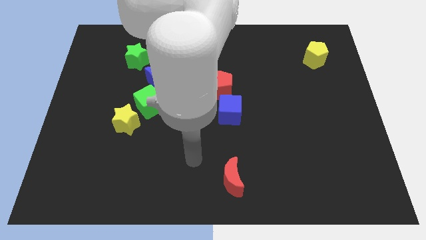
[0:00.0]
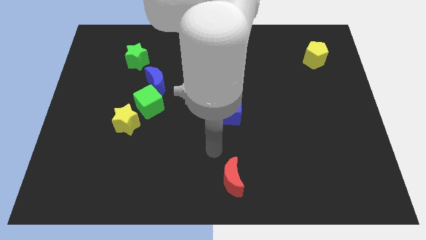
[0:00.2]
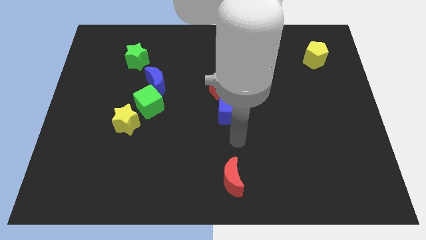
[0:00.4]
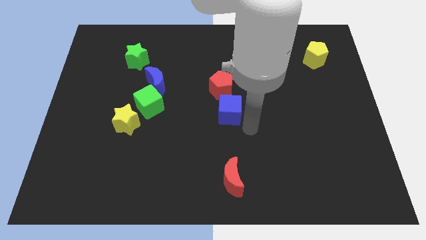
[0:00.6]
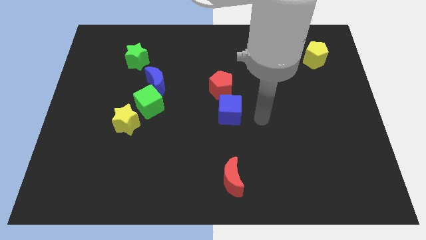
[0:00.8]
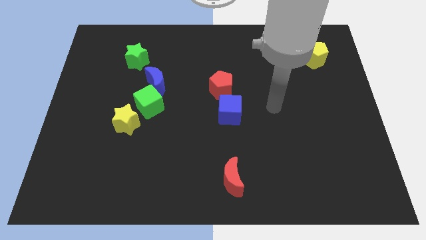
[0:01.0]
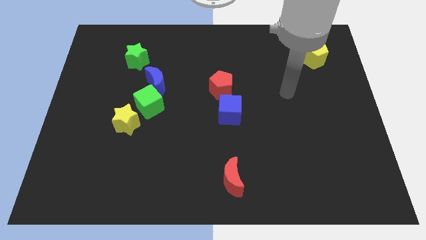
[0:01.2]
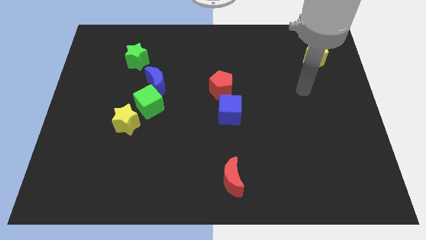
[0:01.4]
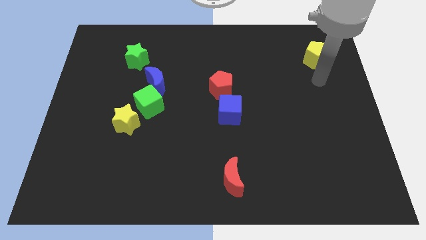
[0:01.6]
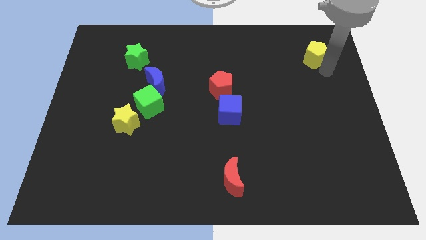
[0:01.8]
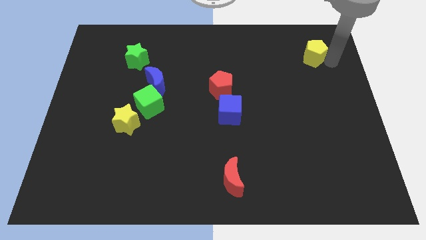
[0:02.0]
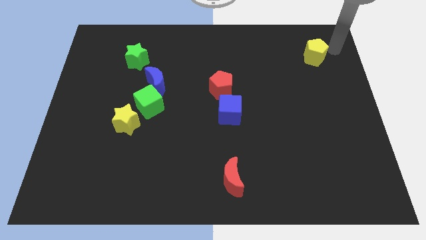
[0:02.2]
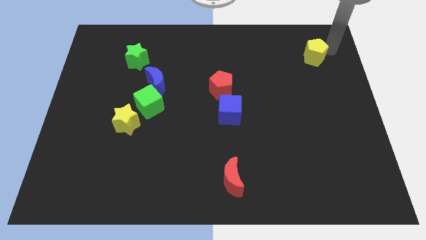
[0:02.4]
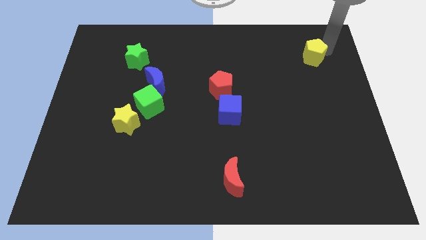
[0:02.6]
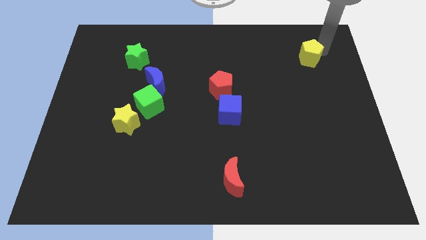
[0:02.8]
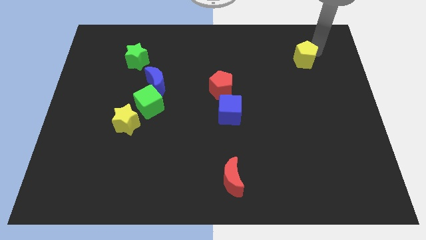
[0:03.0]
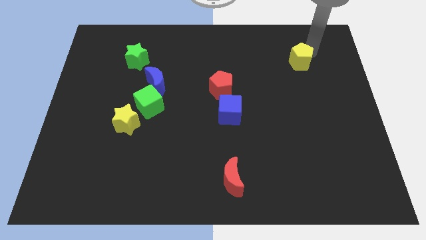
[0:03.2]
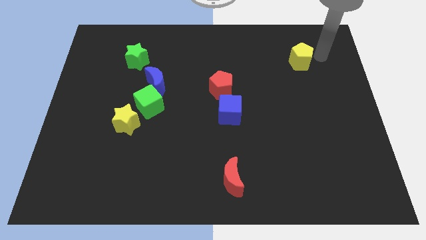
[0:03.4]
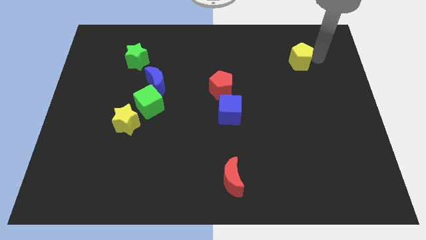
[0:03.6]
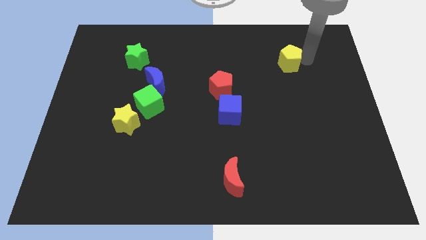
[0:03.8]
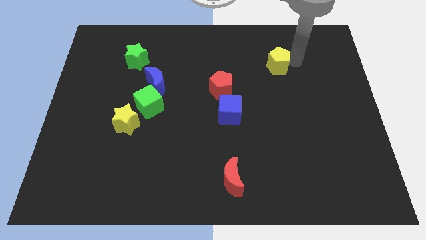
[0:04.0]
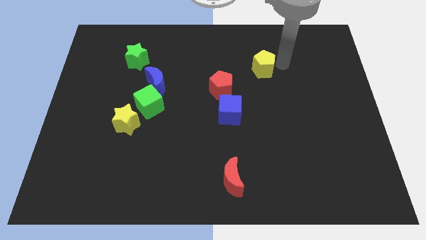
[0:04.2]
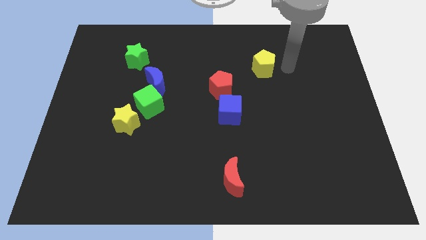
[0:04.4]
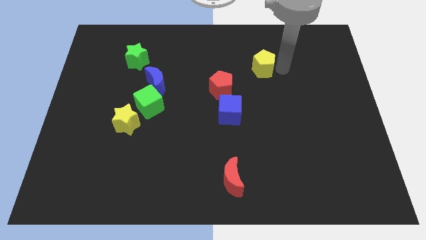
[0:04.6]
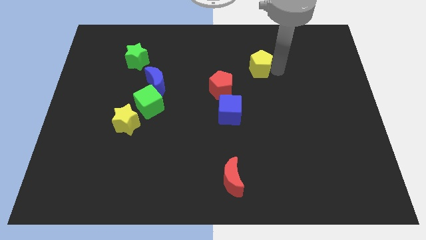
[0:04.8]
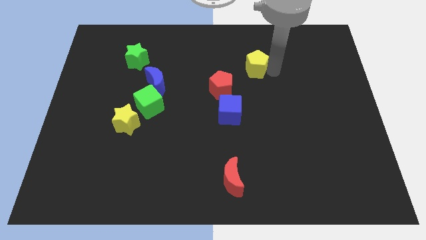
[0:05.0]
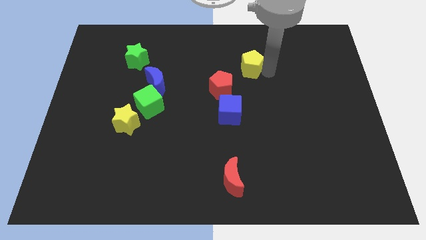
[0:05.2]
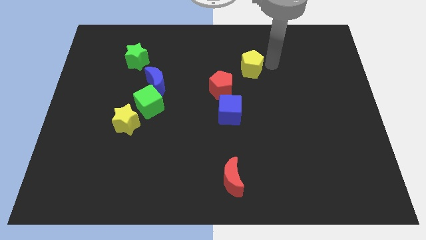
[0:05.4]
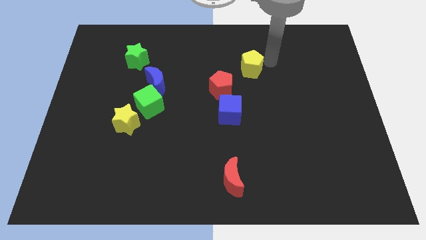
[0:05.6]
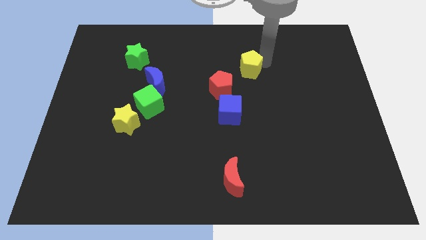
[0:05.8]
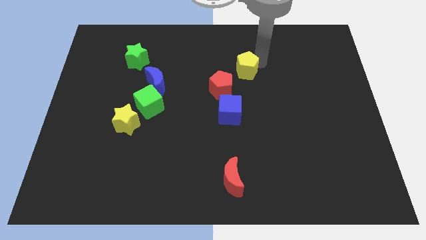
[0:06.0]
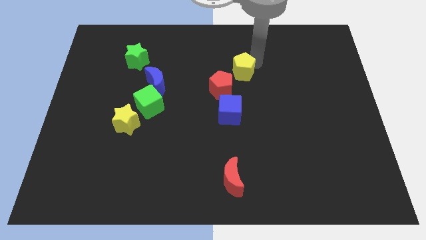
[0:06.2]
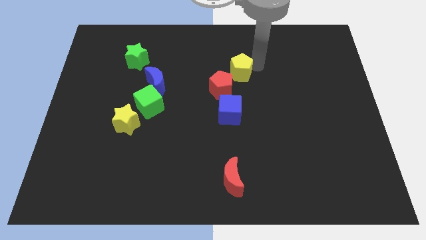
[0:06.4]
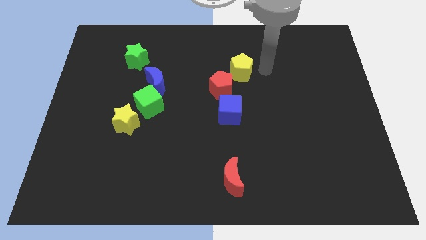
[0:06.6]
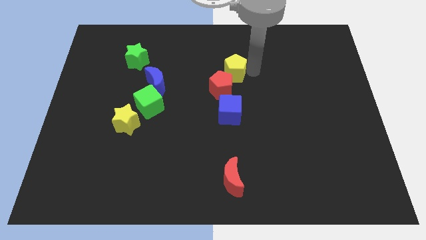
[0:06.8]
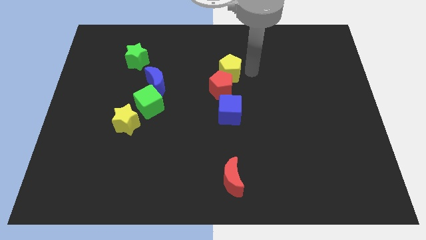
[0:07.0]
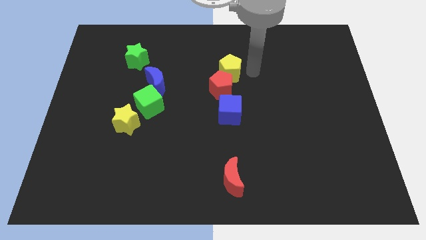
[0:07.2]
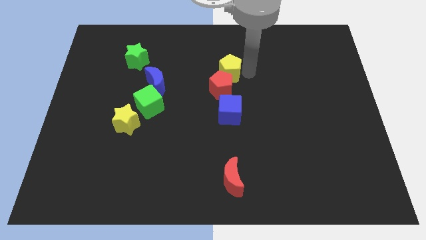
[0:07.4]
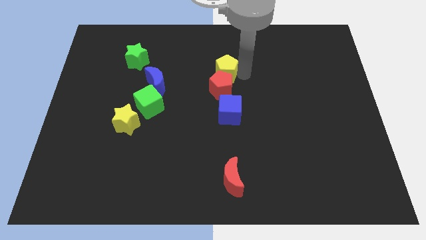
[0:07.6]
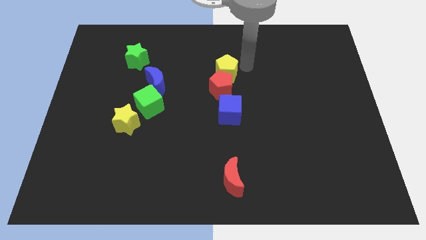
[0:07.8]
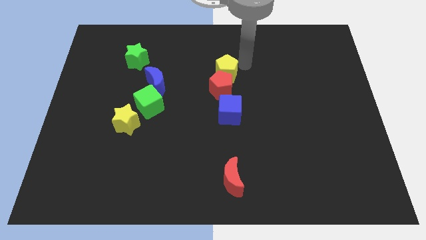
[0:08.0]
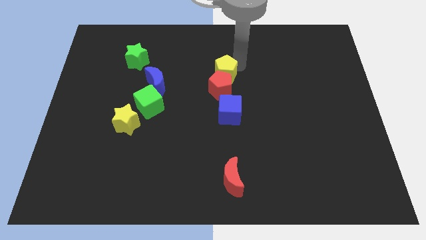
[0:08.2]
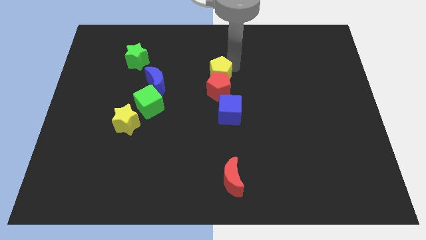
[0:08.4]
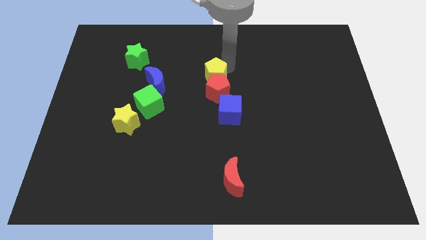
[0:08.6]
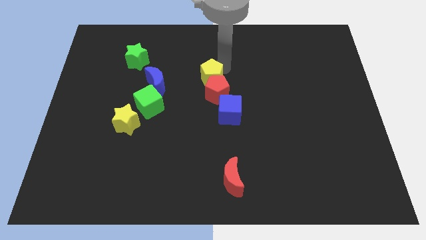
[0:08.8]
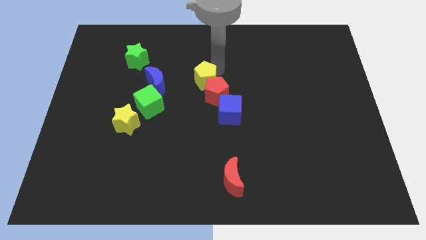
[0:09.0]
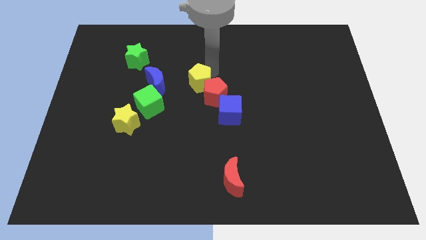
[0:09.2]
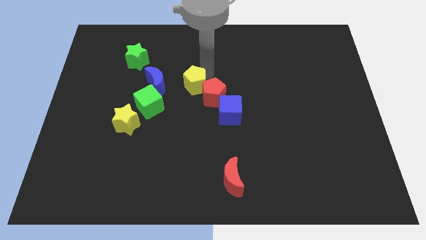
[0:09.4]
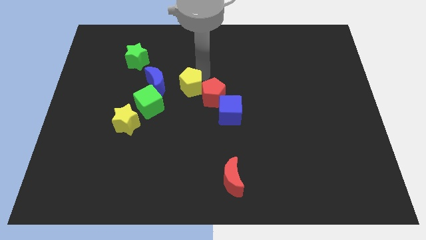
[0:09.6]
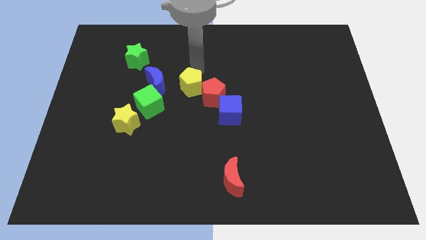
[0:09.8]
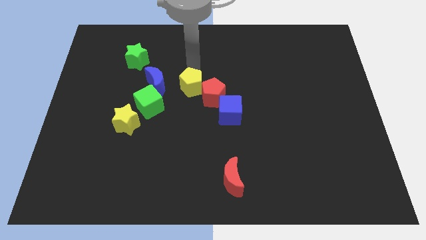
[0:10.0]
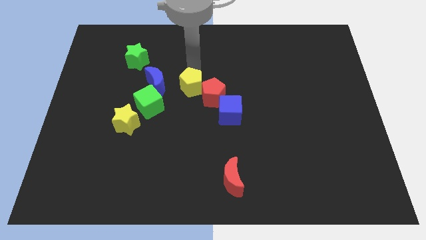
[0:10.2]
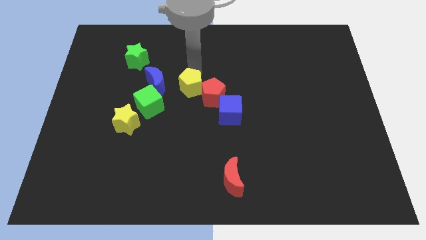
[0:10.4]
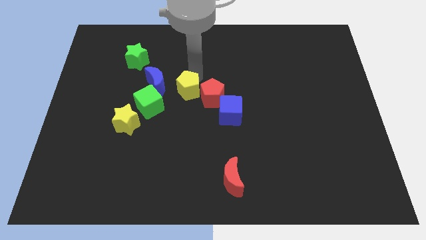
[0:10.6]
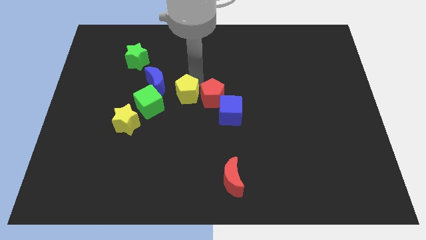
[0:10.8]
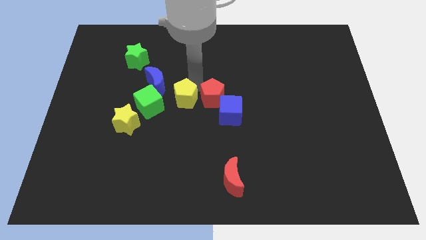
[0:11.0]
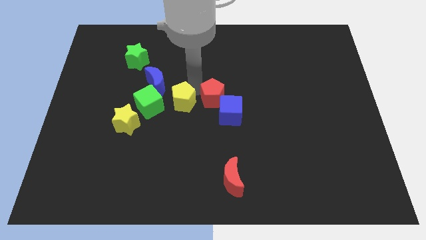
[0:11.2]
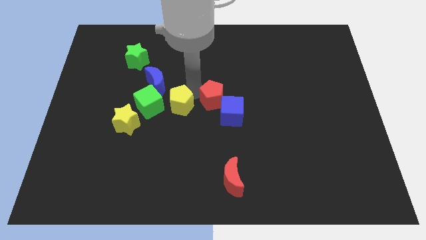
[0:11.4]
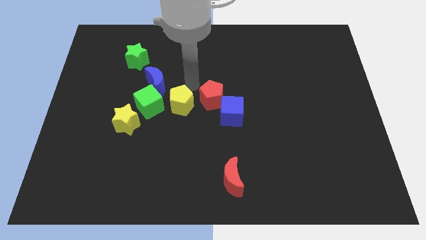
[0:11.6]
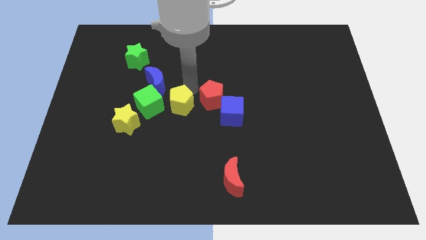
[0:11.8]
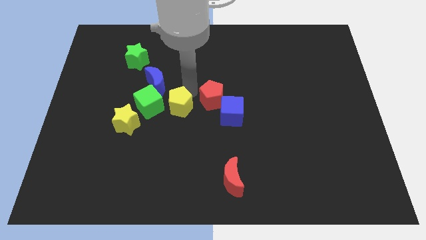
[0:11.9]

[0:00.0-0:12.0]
move the yellow pentagon diagonally down and to the right of the green cube

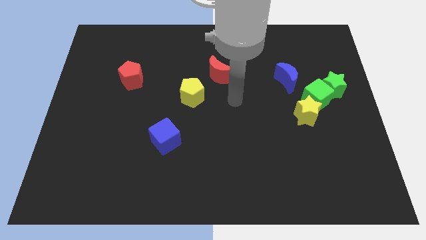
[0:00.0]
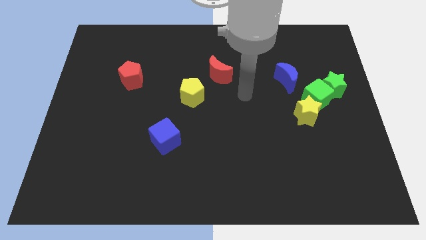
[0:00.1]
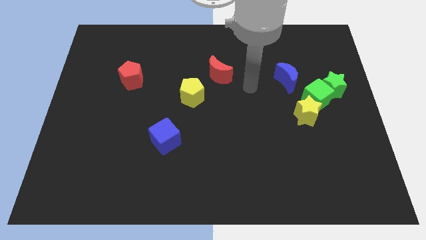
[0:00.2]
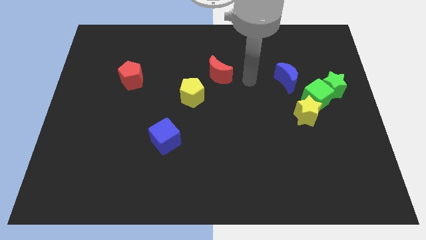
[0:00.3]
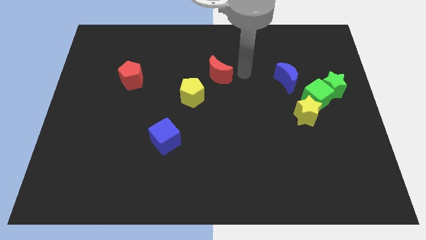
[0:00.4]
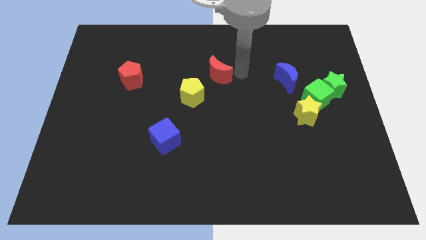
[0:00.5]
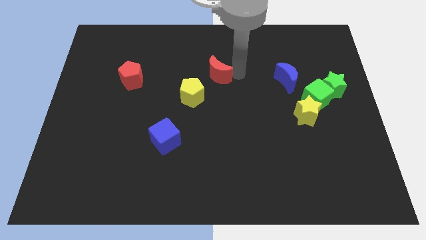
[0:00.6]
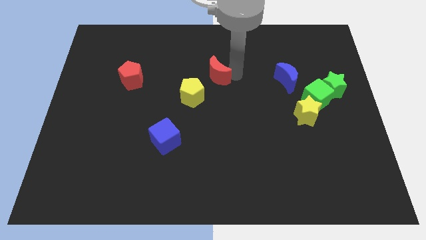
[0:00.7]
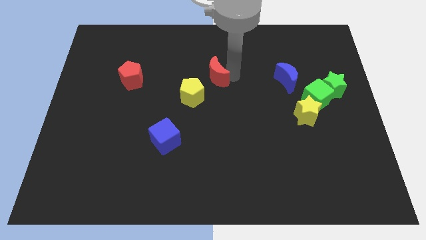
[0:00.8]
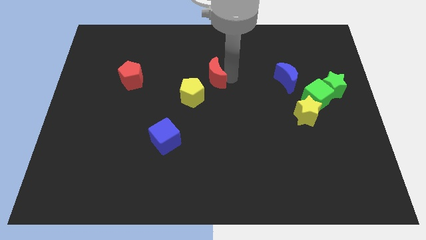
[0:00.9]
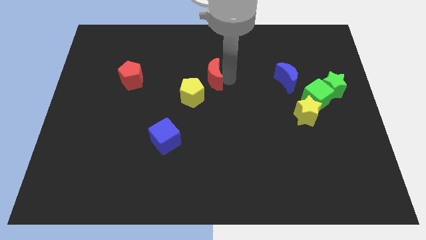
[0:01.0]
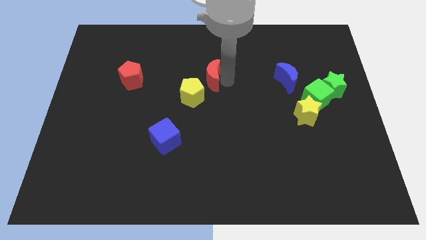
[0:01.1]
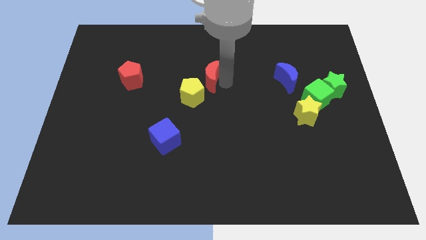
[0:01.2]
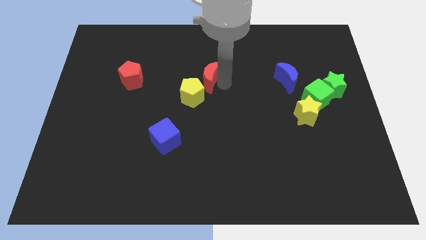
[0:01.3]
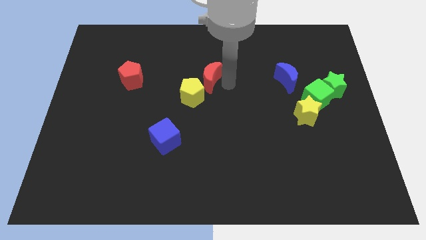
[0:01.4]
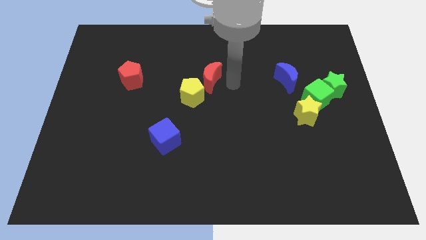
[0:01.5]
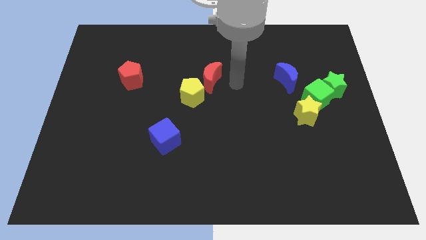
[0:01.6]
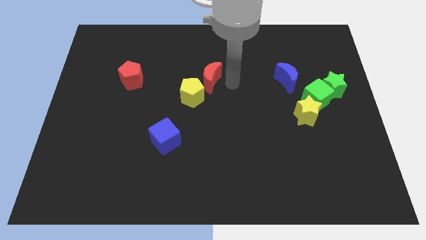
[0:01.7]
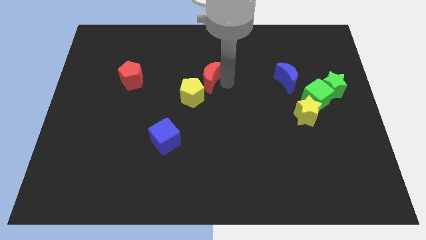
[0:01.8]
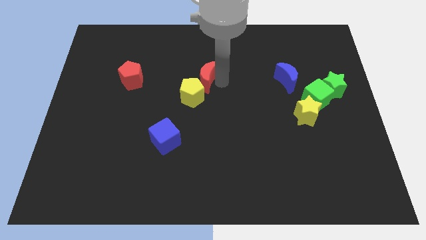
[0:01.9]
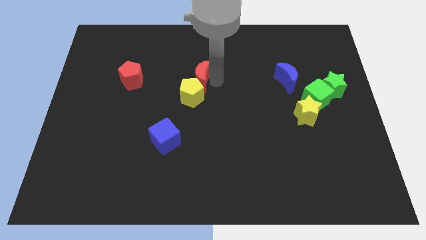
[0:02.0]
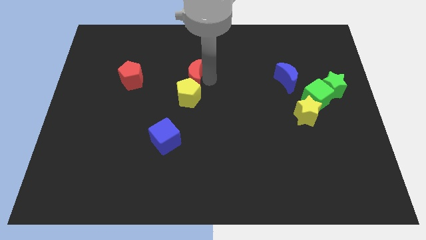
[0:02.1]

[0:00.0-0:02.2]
push the red moon to the right of the red pentagon

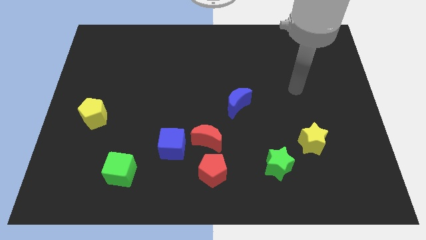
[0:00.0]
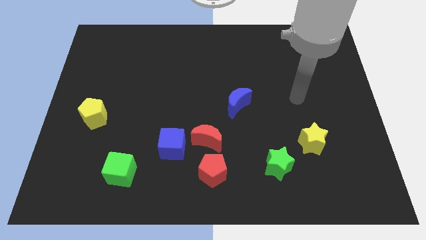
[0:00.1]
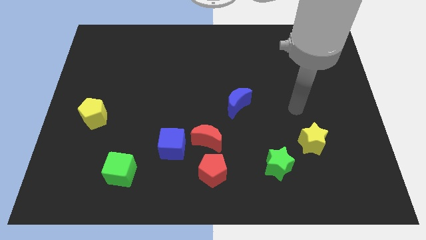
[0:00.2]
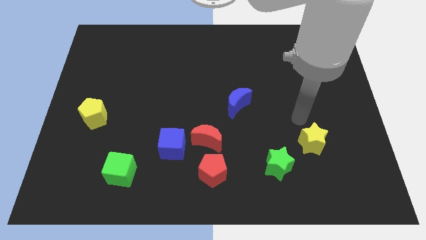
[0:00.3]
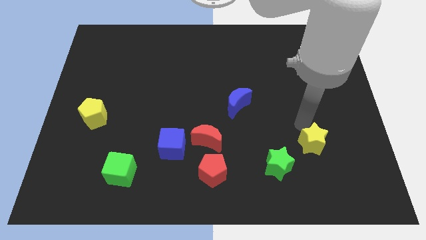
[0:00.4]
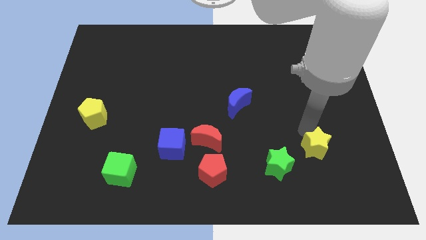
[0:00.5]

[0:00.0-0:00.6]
push the yellow star right of the green star
